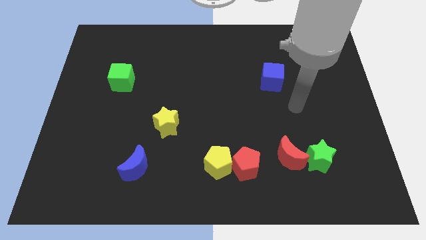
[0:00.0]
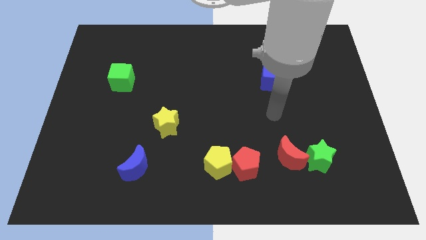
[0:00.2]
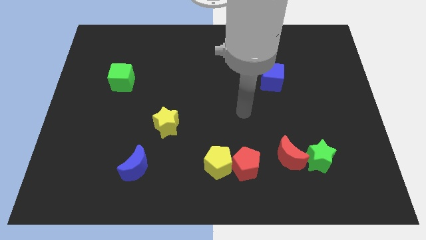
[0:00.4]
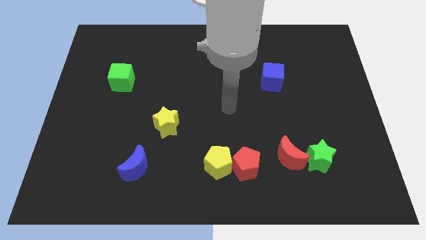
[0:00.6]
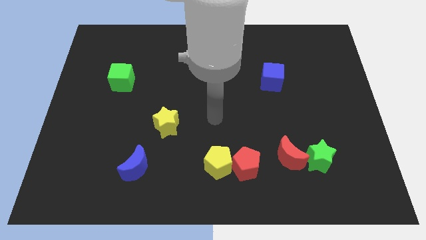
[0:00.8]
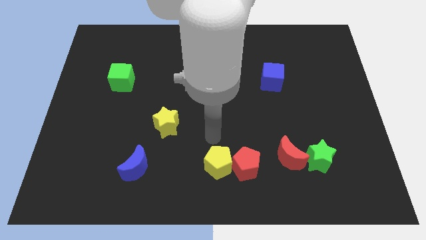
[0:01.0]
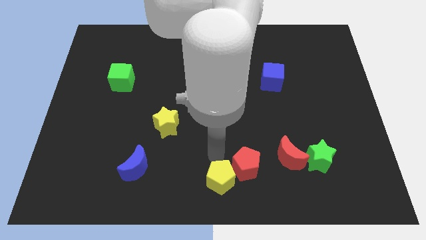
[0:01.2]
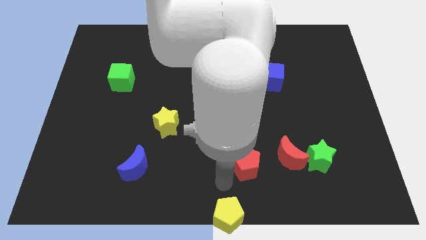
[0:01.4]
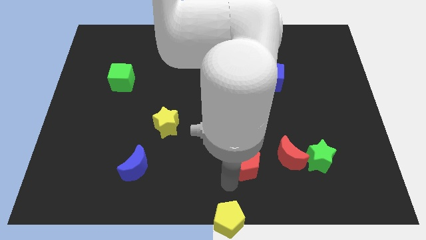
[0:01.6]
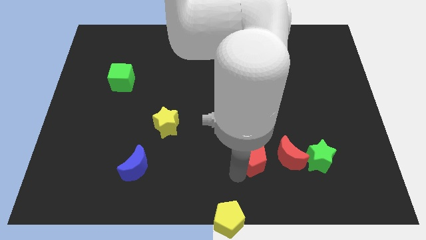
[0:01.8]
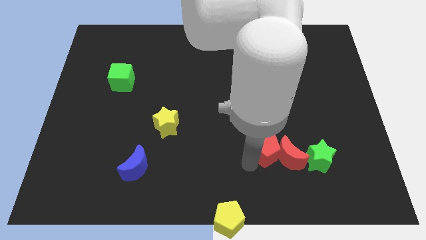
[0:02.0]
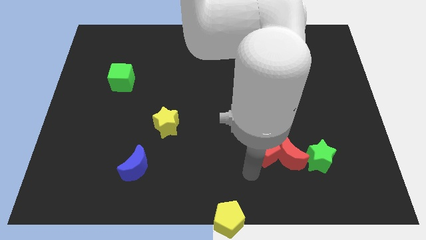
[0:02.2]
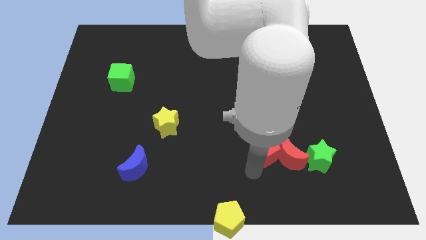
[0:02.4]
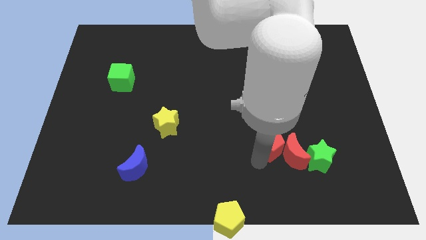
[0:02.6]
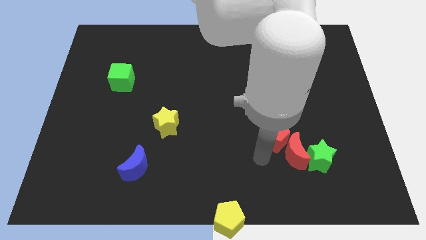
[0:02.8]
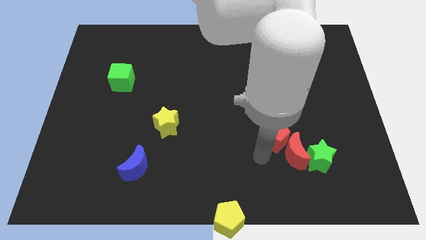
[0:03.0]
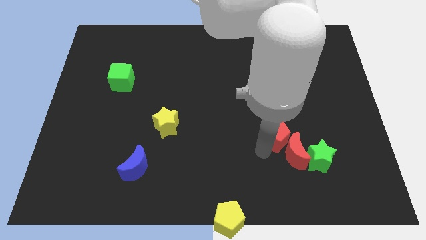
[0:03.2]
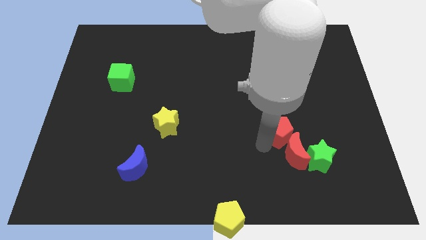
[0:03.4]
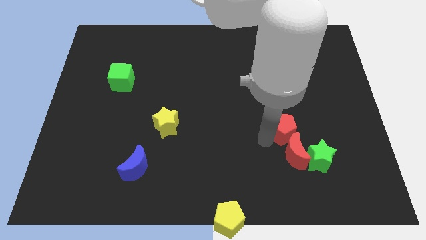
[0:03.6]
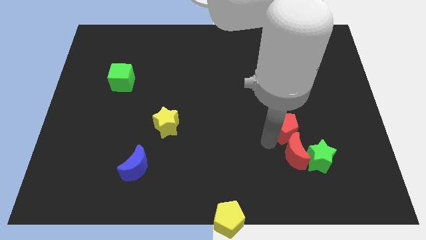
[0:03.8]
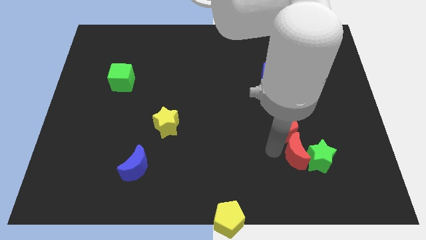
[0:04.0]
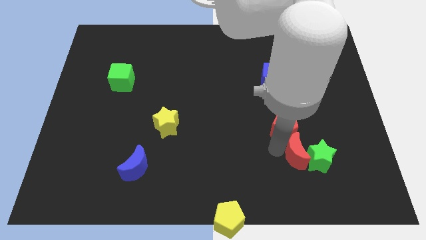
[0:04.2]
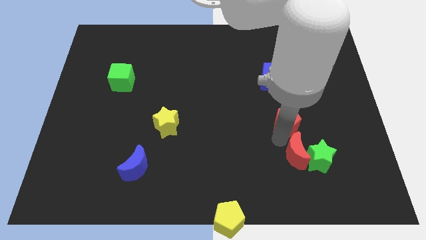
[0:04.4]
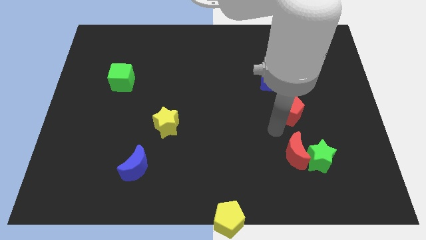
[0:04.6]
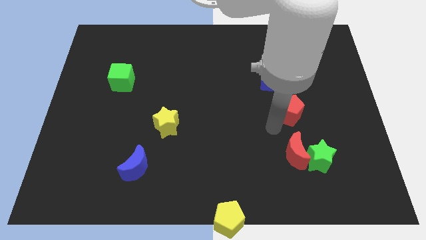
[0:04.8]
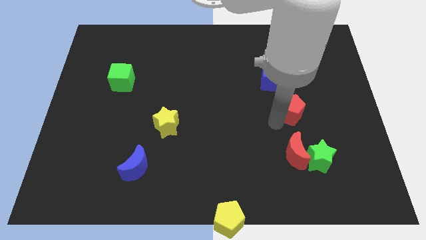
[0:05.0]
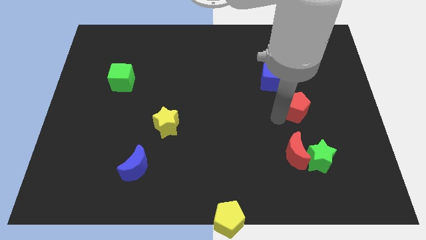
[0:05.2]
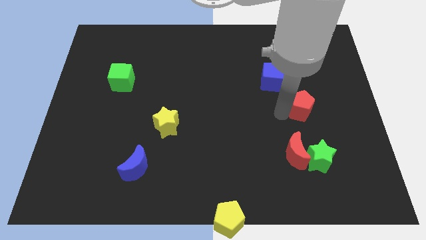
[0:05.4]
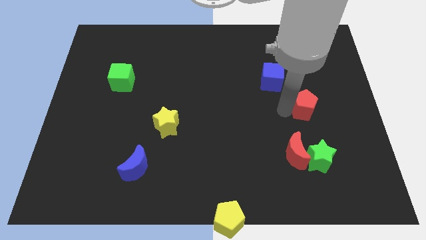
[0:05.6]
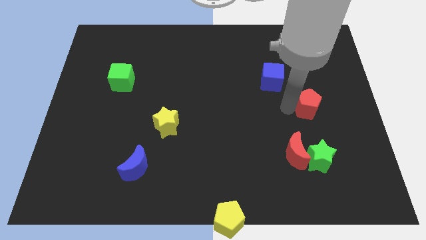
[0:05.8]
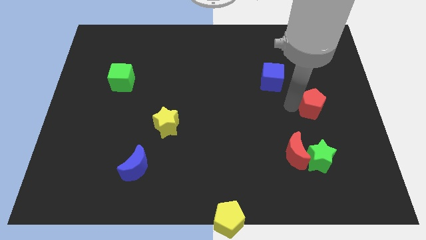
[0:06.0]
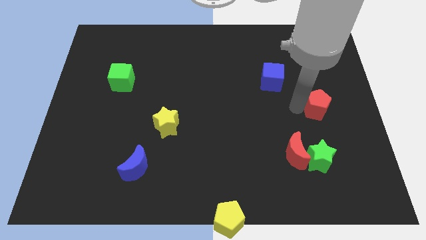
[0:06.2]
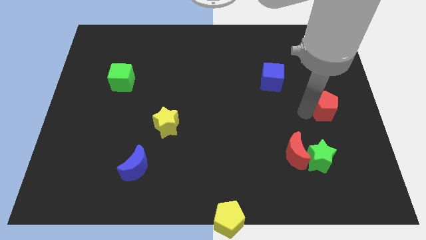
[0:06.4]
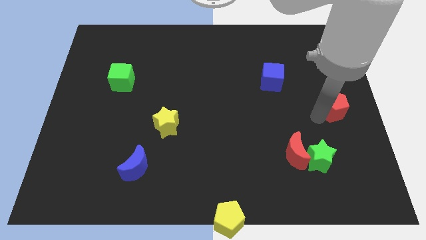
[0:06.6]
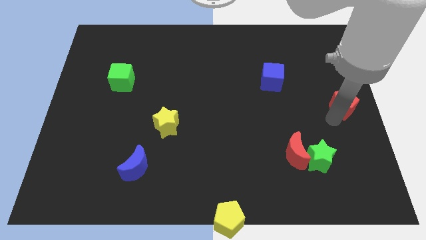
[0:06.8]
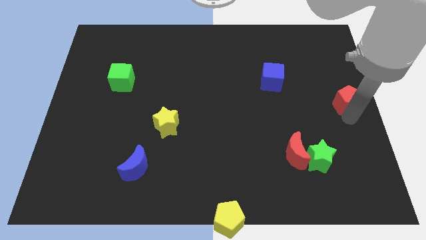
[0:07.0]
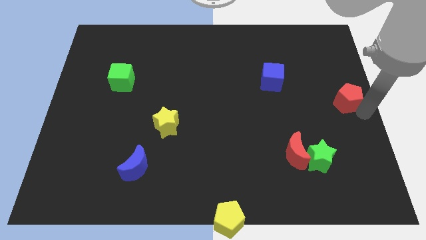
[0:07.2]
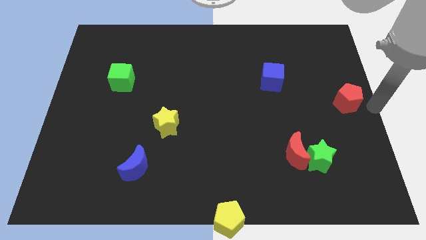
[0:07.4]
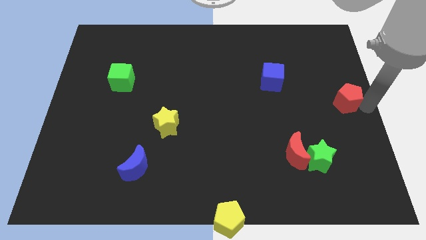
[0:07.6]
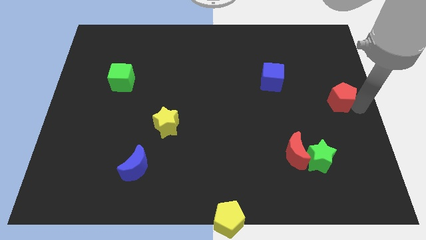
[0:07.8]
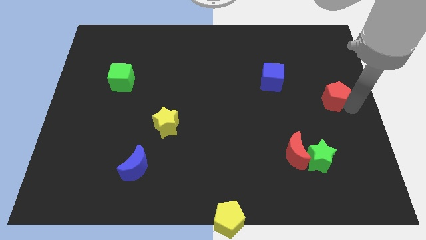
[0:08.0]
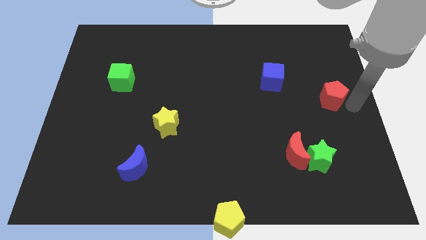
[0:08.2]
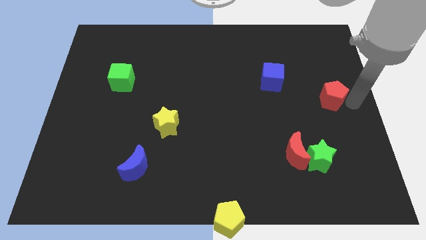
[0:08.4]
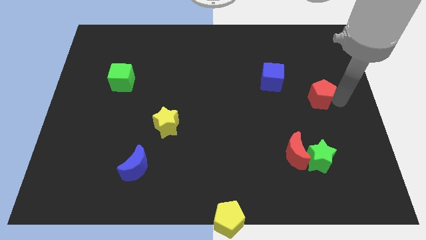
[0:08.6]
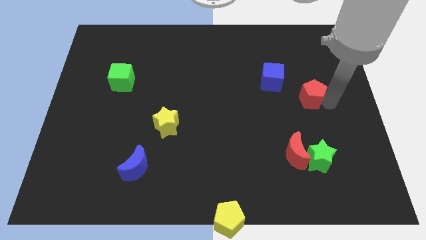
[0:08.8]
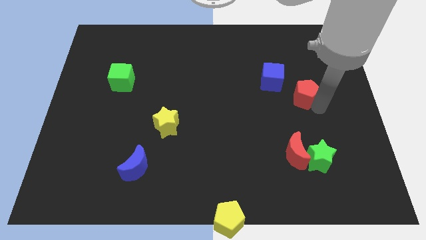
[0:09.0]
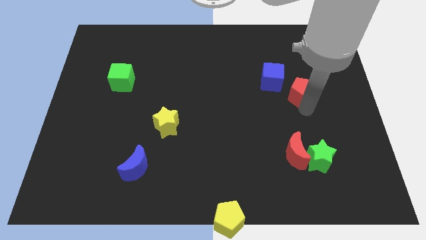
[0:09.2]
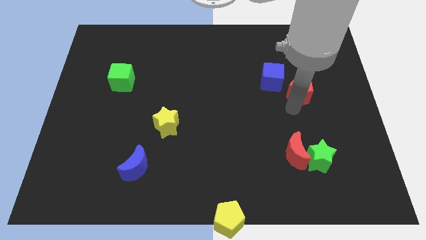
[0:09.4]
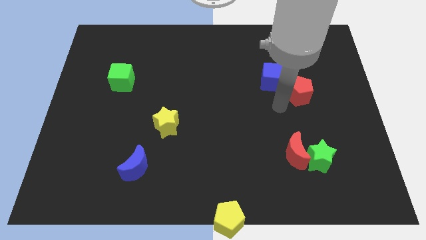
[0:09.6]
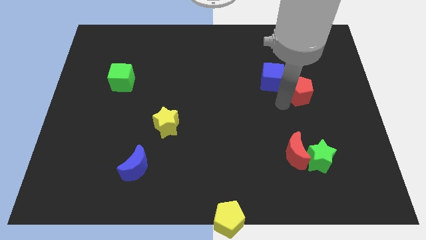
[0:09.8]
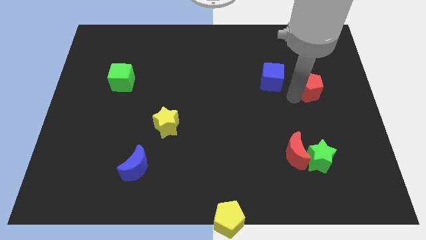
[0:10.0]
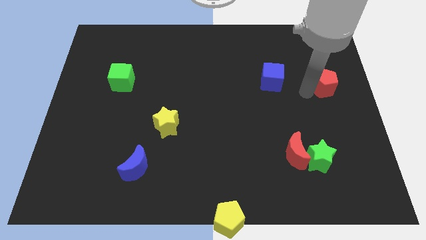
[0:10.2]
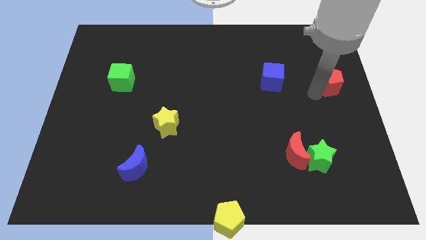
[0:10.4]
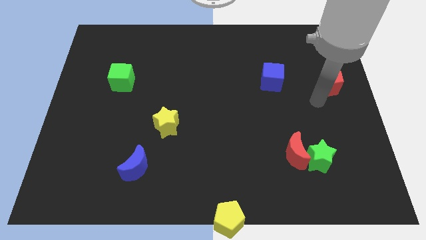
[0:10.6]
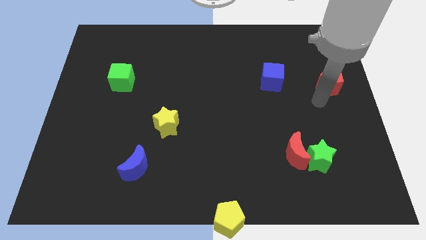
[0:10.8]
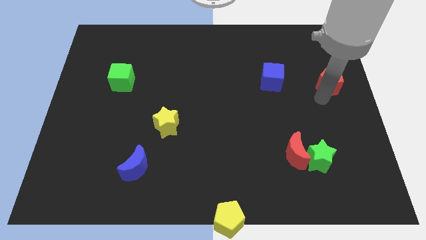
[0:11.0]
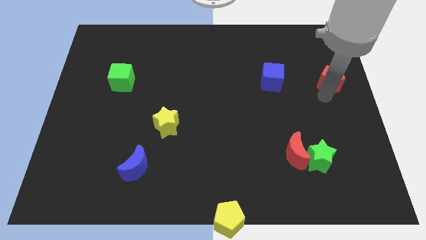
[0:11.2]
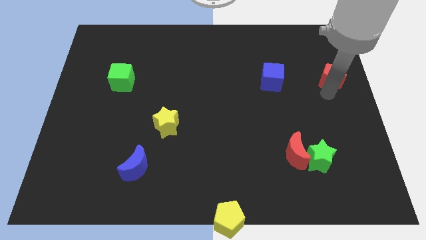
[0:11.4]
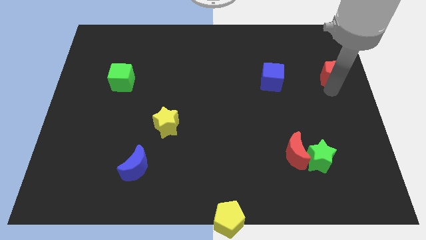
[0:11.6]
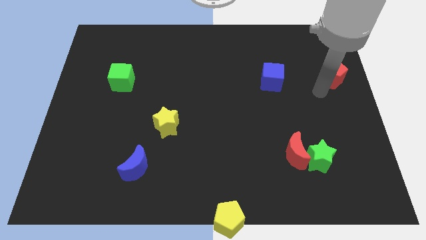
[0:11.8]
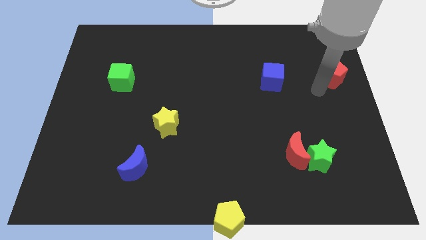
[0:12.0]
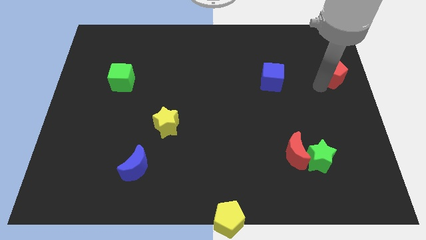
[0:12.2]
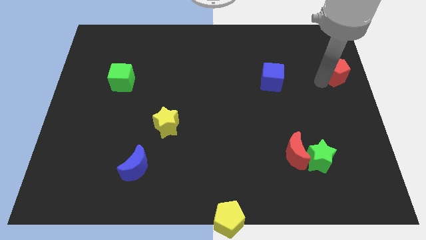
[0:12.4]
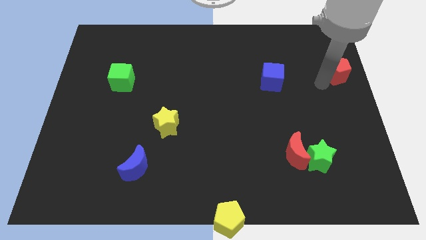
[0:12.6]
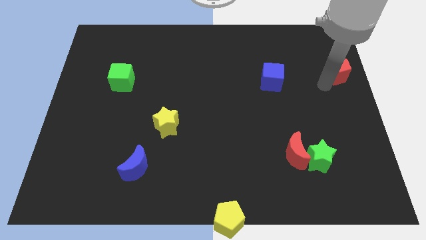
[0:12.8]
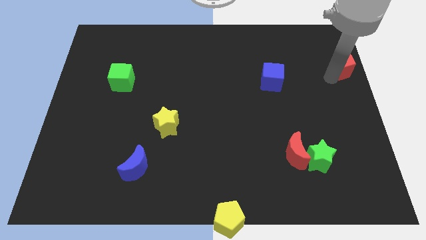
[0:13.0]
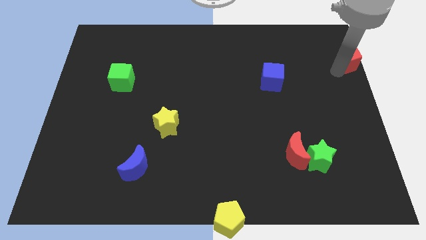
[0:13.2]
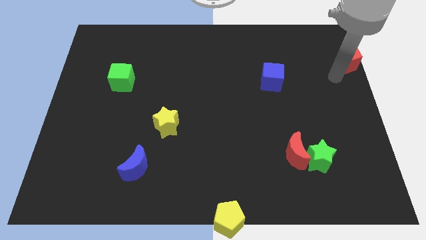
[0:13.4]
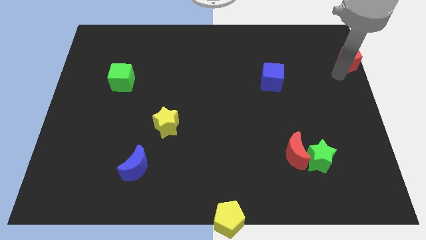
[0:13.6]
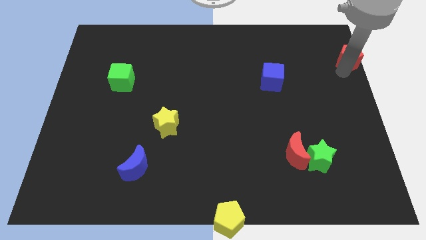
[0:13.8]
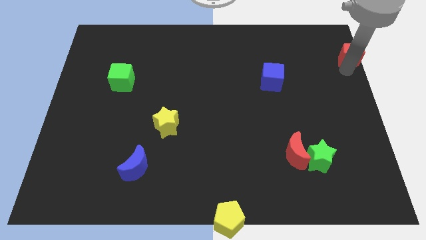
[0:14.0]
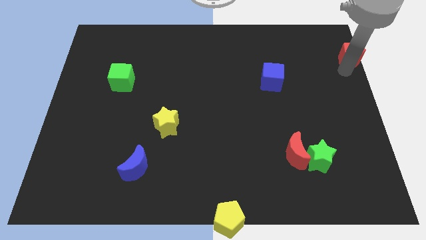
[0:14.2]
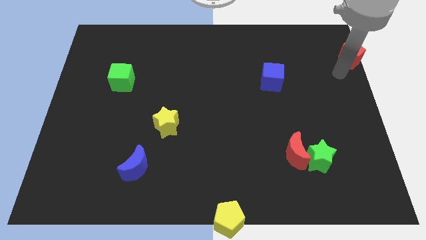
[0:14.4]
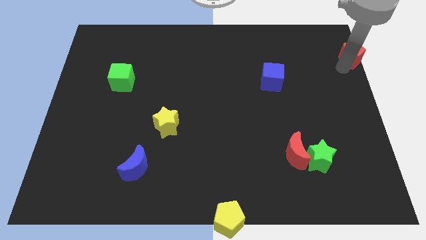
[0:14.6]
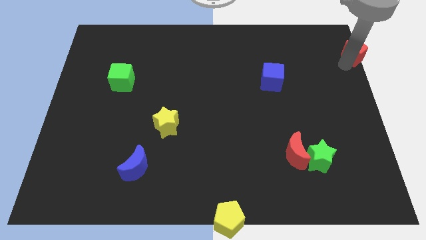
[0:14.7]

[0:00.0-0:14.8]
slide the red pentagon to the top right
